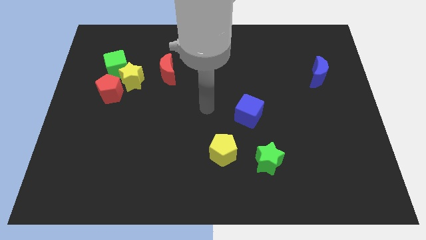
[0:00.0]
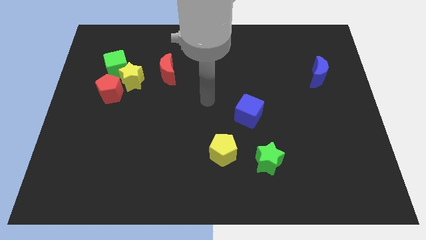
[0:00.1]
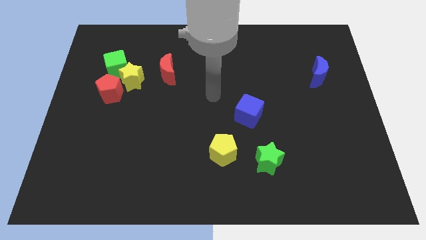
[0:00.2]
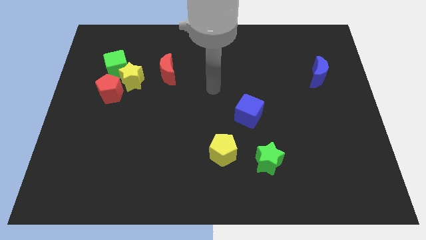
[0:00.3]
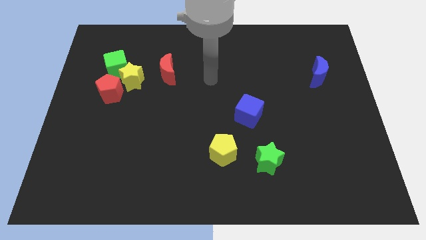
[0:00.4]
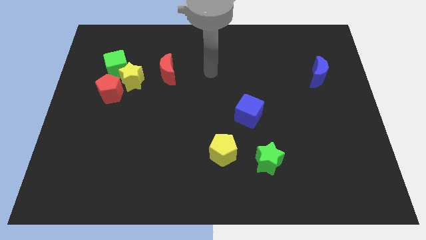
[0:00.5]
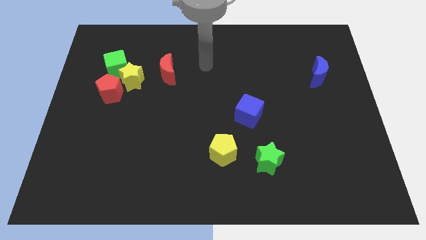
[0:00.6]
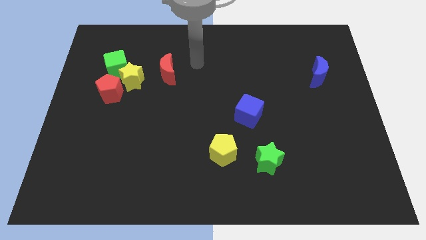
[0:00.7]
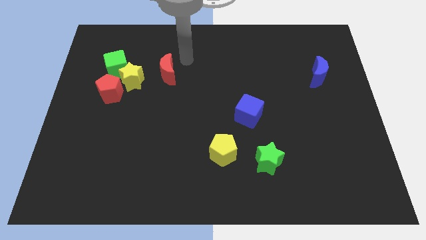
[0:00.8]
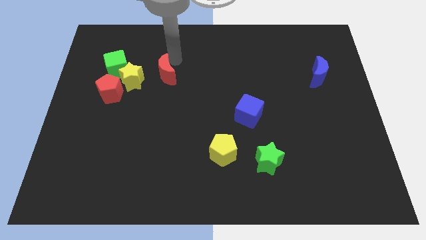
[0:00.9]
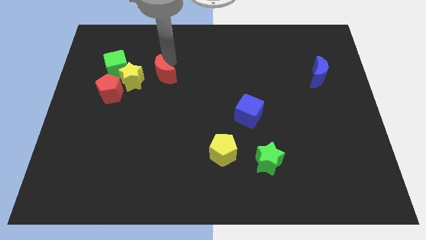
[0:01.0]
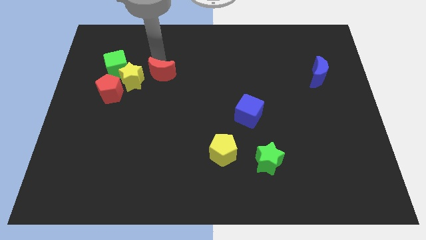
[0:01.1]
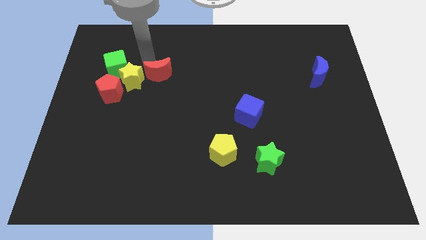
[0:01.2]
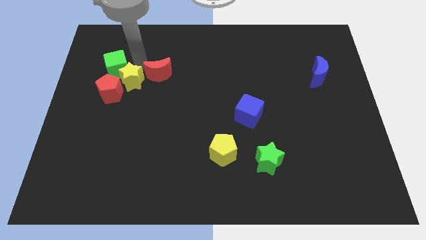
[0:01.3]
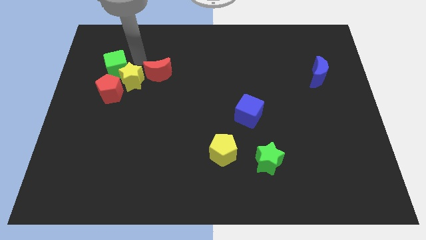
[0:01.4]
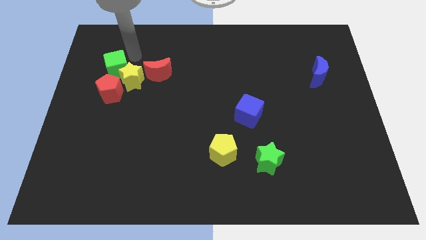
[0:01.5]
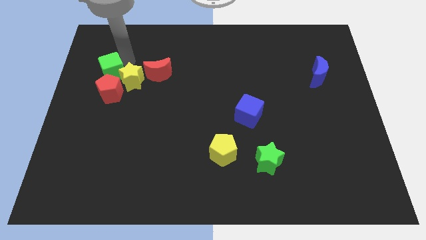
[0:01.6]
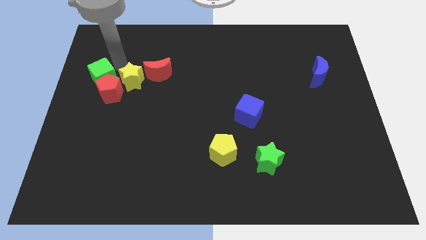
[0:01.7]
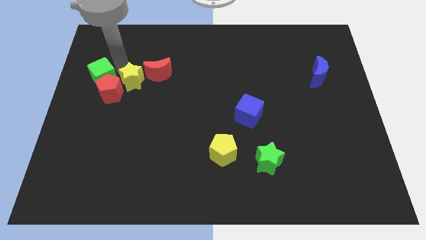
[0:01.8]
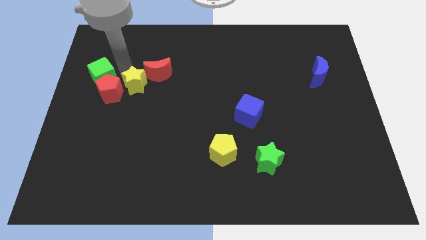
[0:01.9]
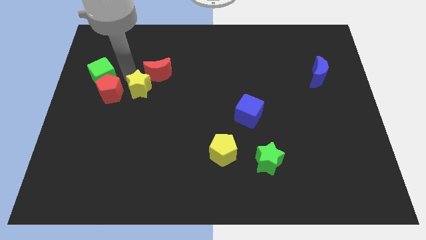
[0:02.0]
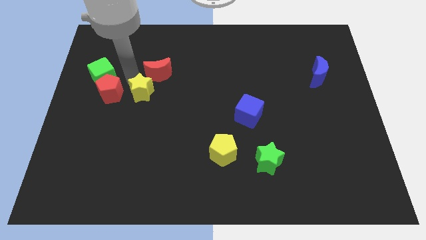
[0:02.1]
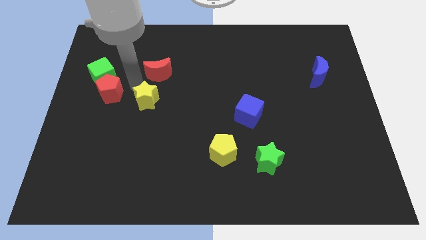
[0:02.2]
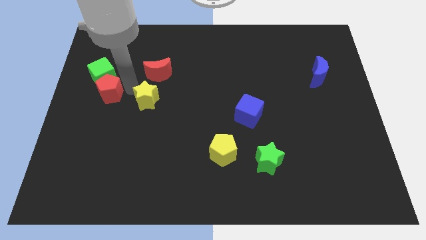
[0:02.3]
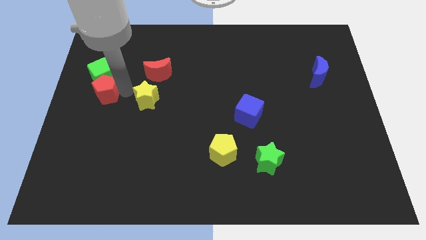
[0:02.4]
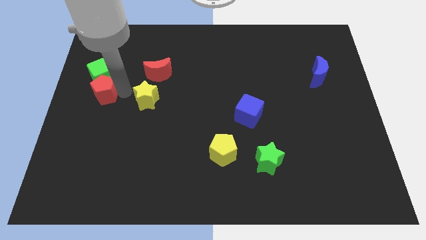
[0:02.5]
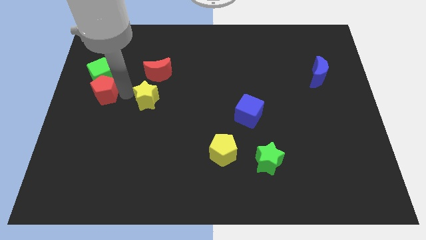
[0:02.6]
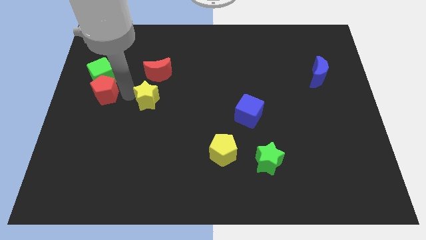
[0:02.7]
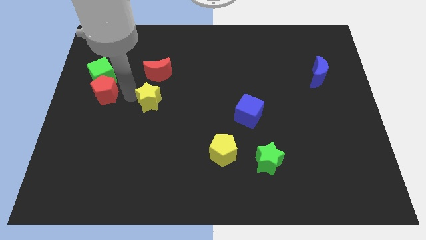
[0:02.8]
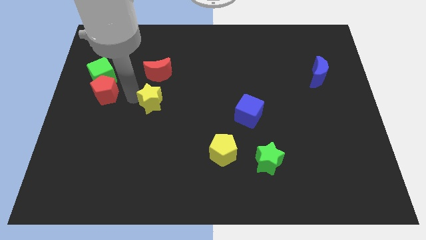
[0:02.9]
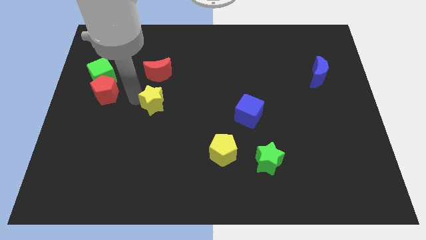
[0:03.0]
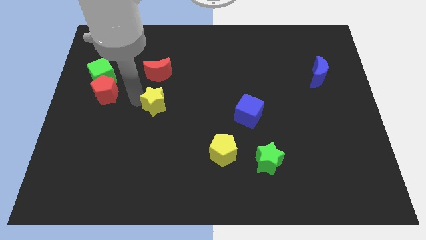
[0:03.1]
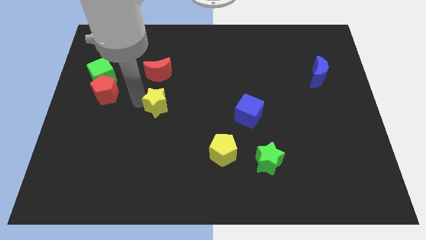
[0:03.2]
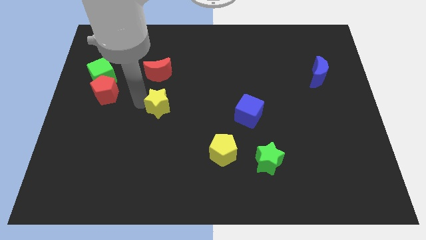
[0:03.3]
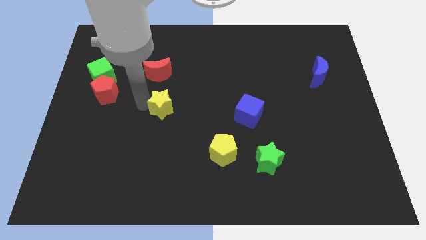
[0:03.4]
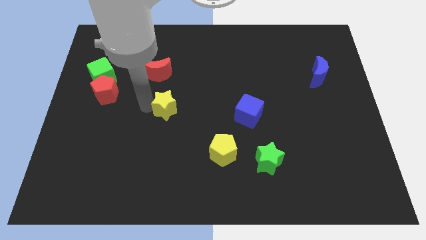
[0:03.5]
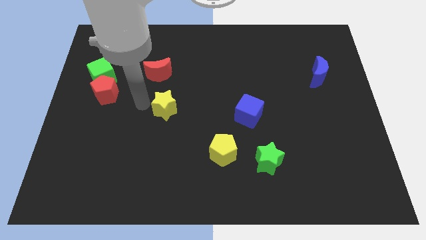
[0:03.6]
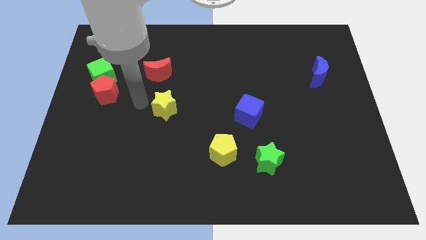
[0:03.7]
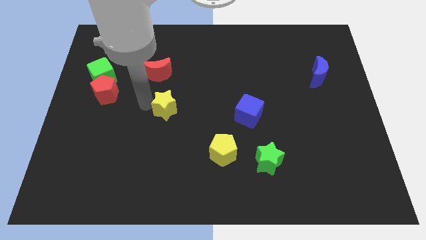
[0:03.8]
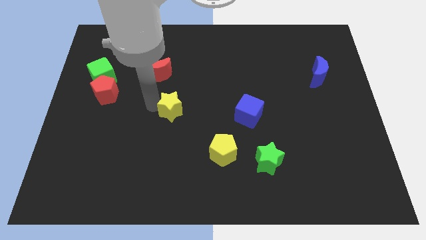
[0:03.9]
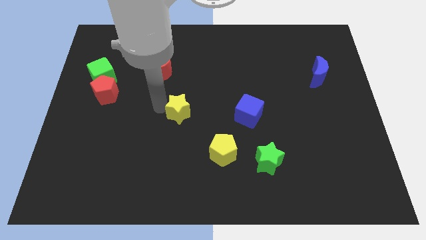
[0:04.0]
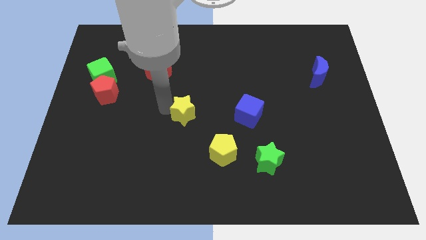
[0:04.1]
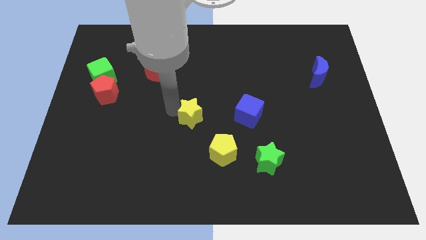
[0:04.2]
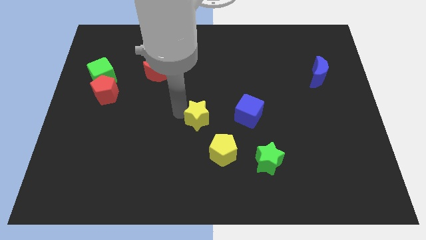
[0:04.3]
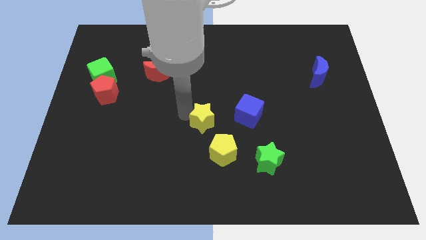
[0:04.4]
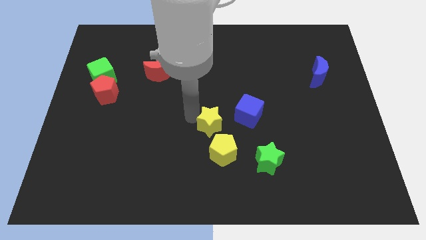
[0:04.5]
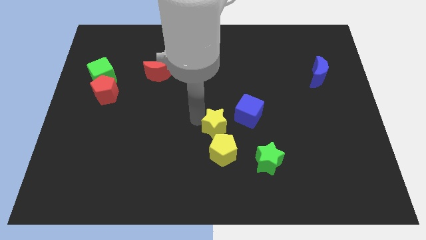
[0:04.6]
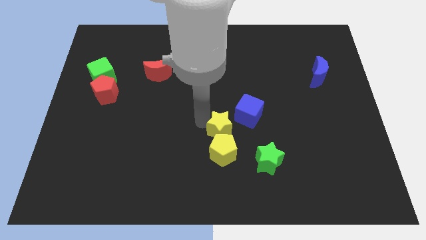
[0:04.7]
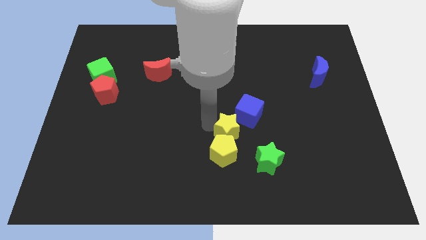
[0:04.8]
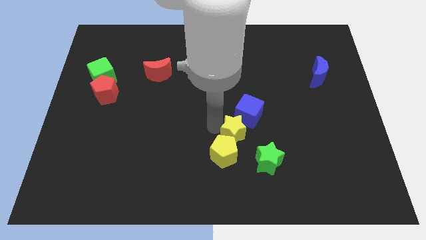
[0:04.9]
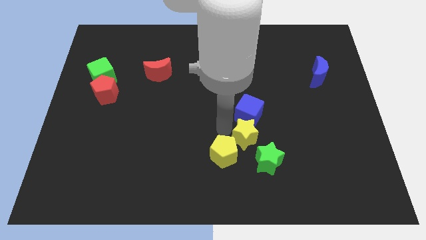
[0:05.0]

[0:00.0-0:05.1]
push the yellow star just right of the yellow pentagon

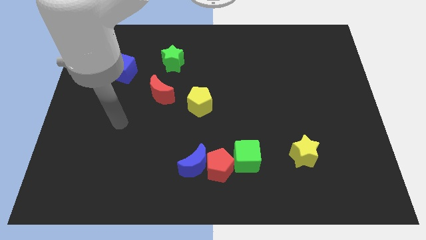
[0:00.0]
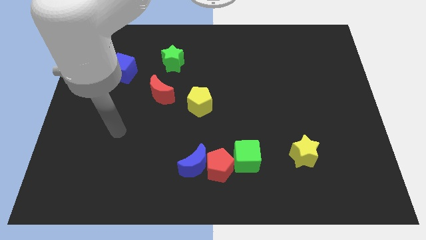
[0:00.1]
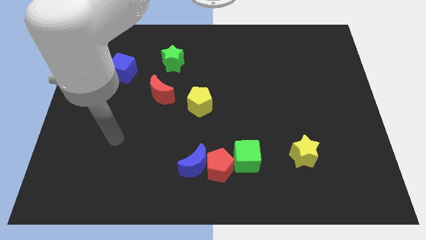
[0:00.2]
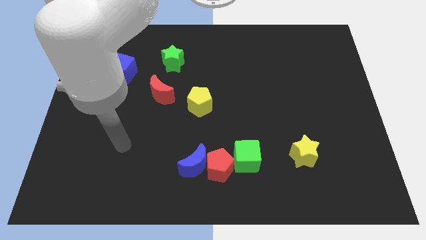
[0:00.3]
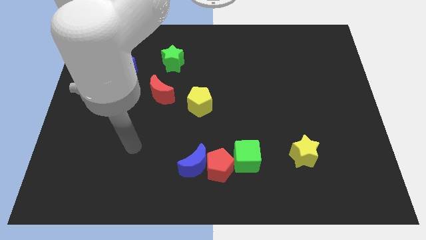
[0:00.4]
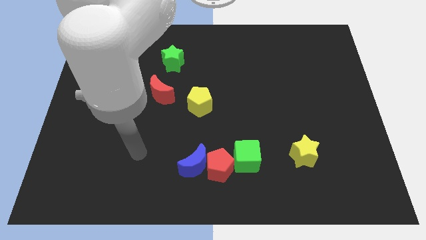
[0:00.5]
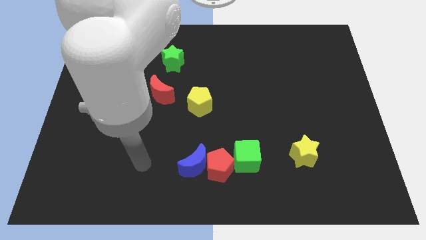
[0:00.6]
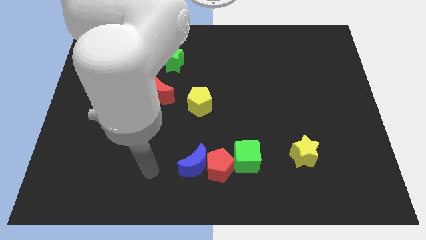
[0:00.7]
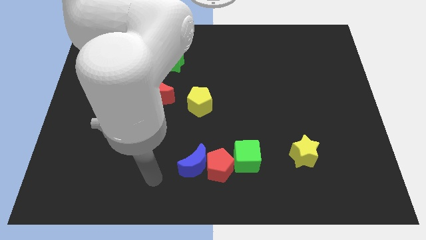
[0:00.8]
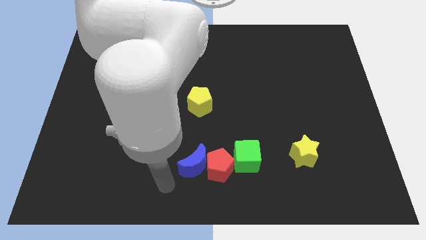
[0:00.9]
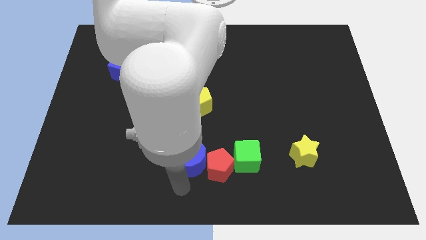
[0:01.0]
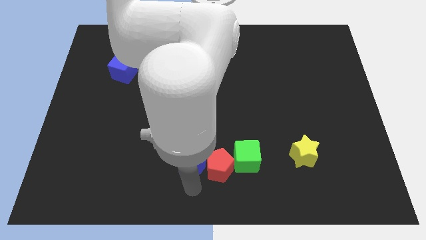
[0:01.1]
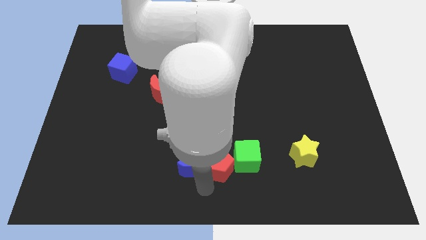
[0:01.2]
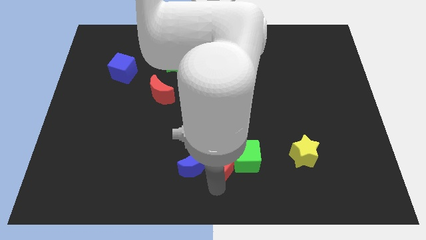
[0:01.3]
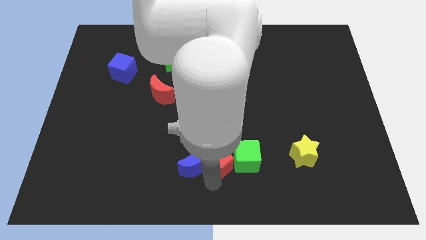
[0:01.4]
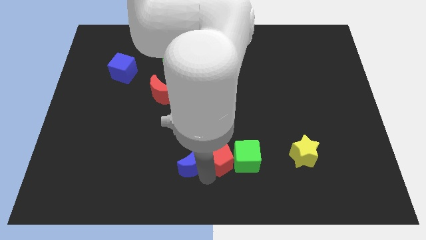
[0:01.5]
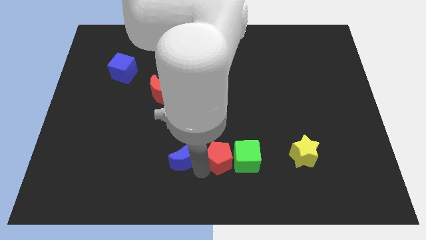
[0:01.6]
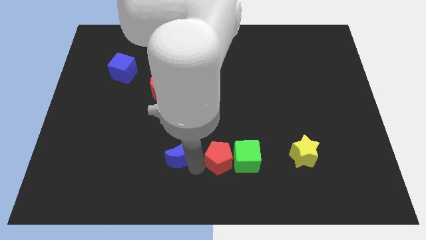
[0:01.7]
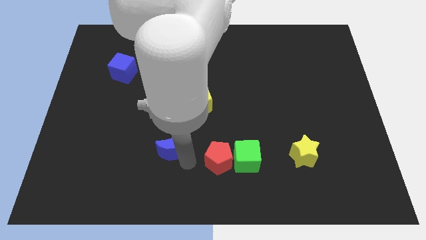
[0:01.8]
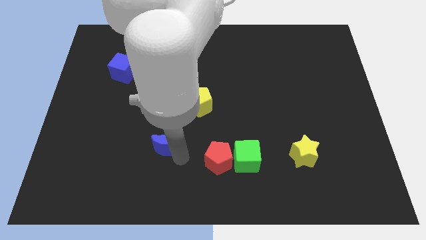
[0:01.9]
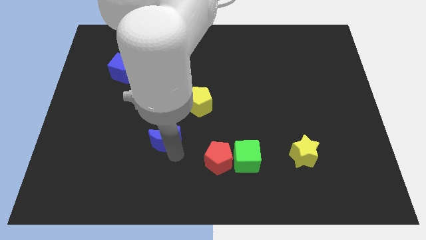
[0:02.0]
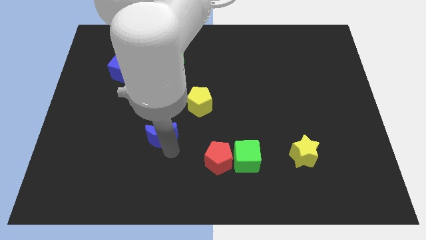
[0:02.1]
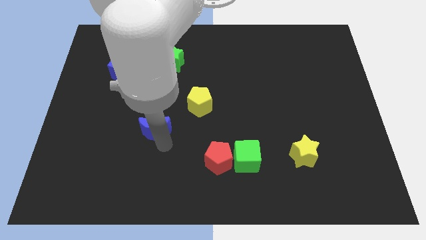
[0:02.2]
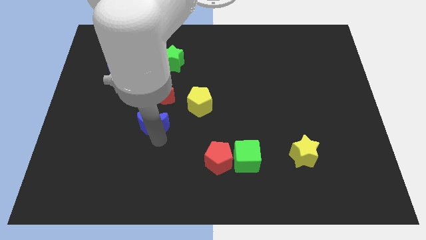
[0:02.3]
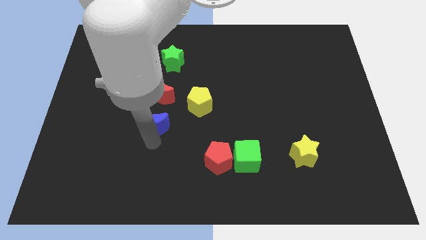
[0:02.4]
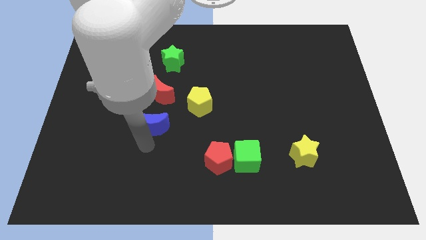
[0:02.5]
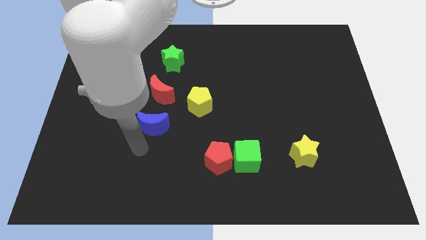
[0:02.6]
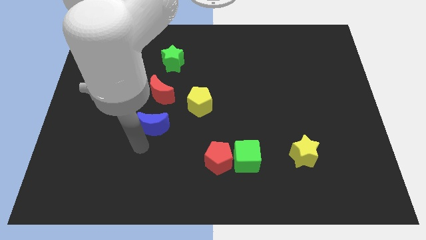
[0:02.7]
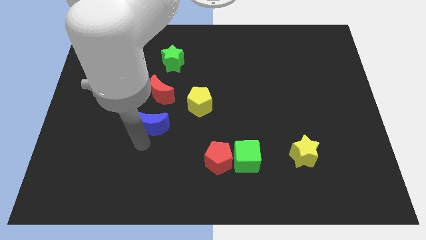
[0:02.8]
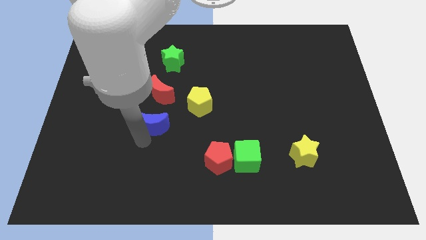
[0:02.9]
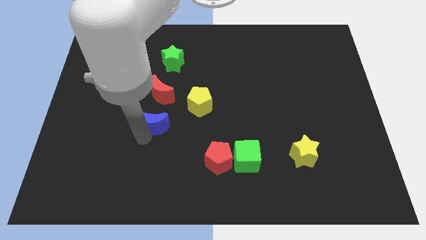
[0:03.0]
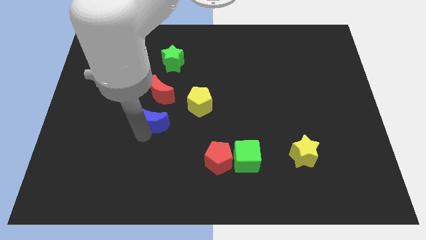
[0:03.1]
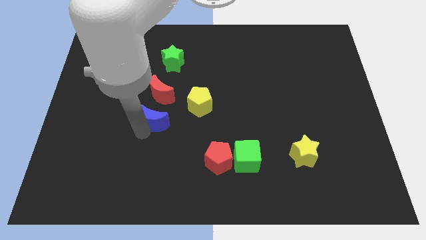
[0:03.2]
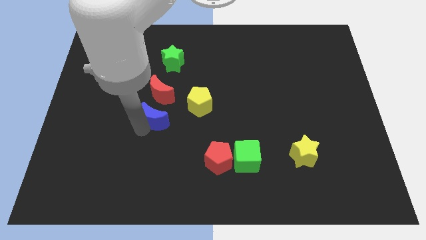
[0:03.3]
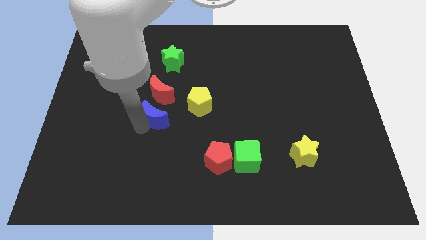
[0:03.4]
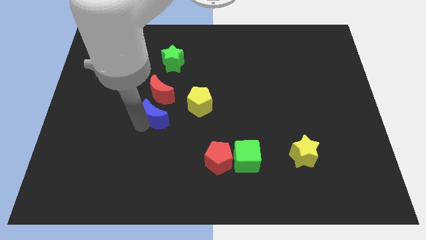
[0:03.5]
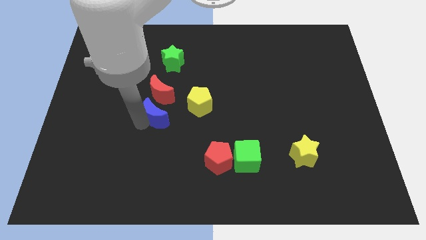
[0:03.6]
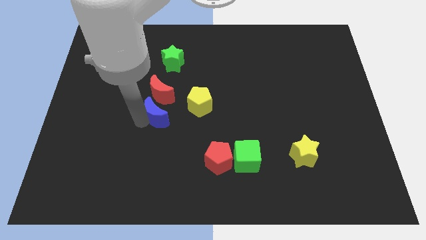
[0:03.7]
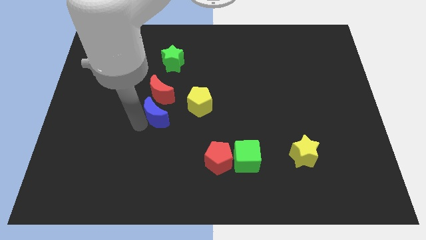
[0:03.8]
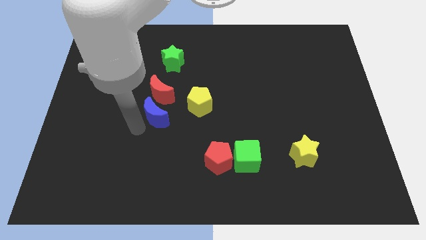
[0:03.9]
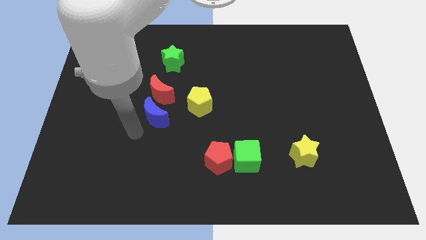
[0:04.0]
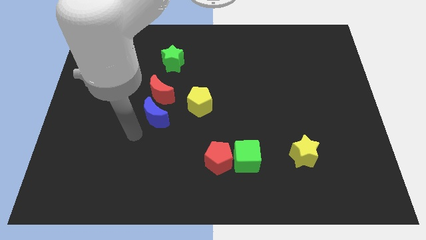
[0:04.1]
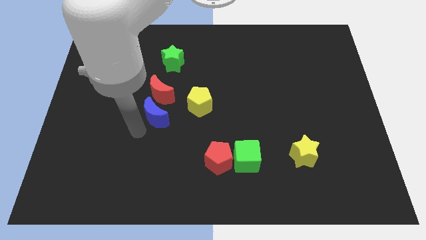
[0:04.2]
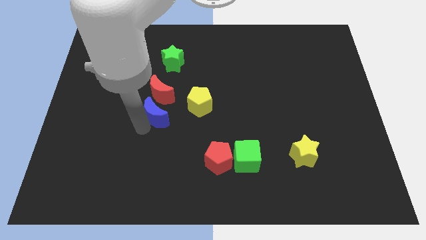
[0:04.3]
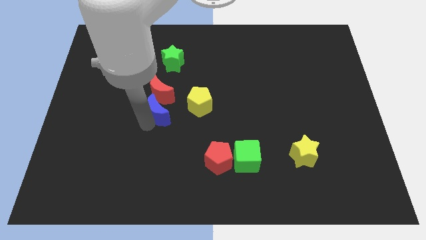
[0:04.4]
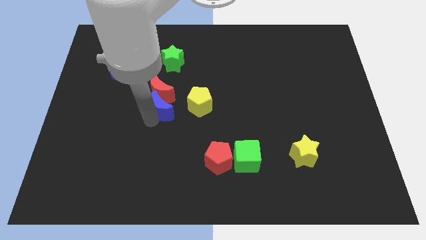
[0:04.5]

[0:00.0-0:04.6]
slide the blue moon to the bottom side of the green star
